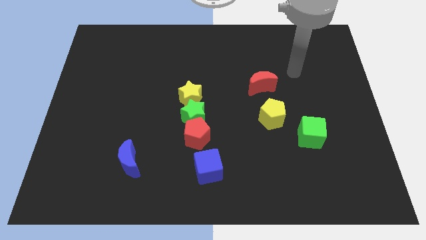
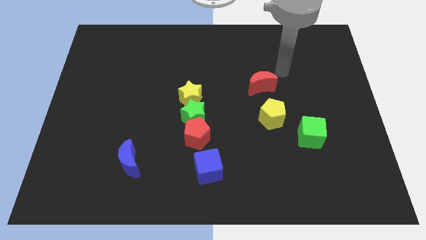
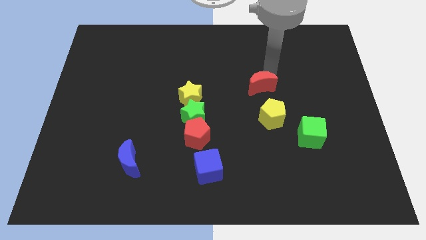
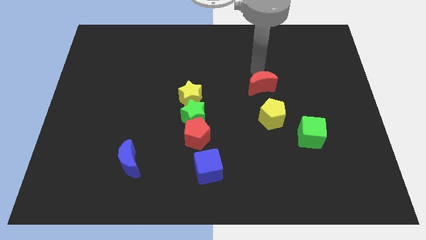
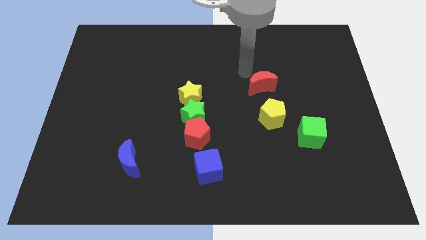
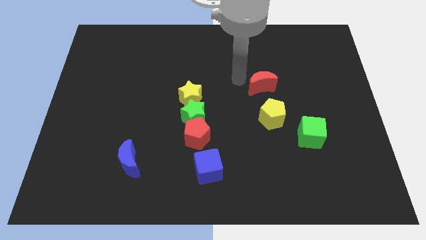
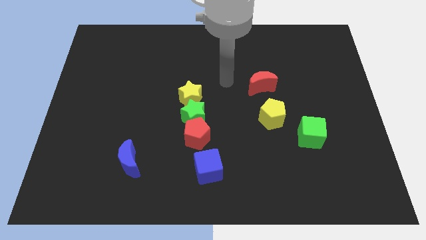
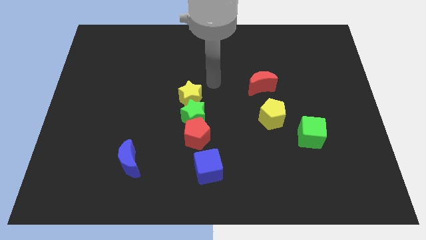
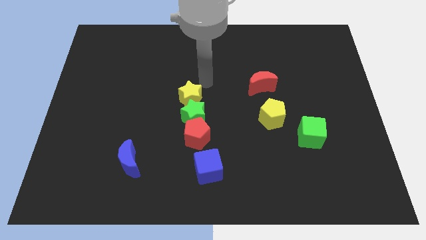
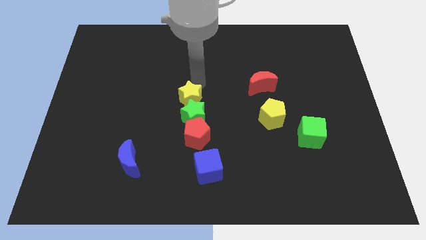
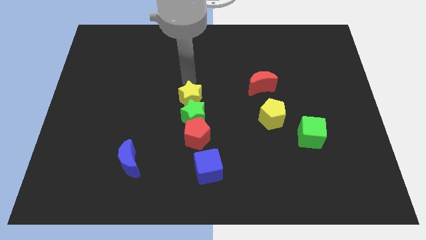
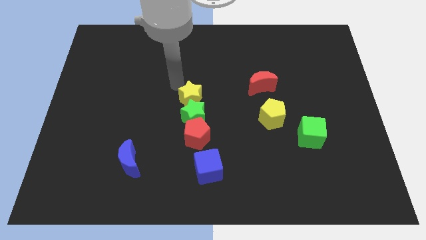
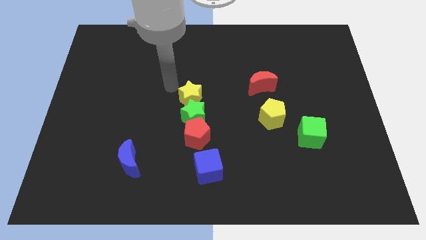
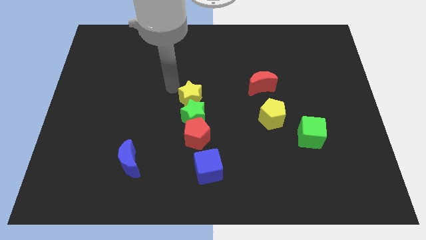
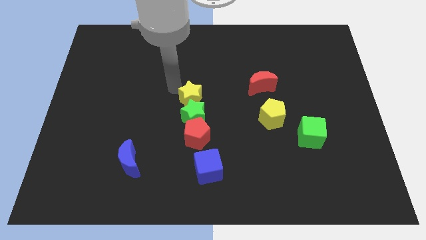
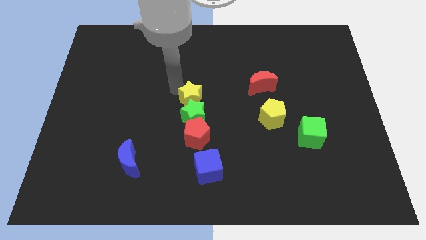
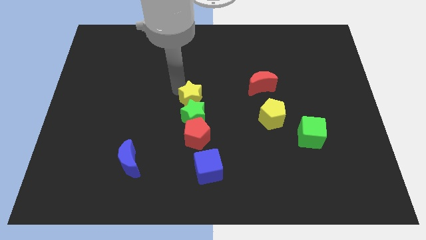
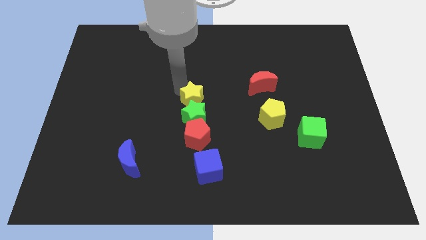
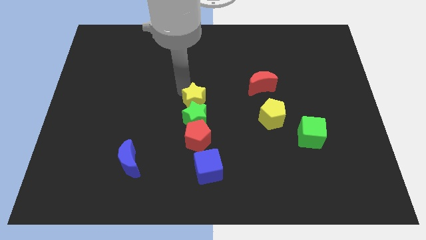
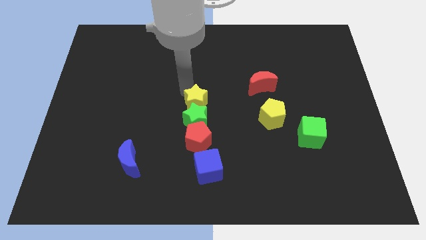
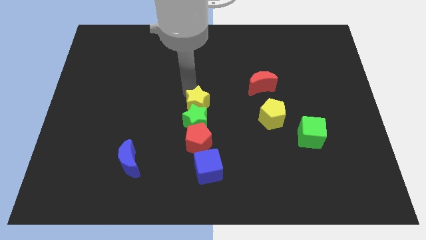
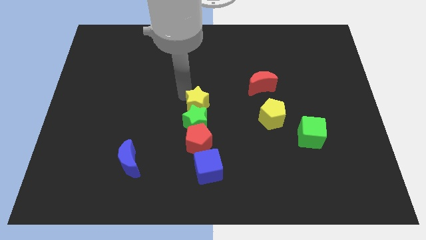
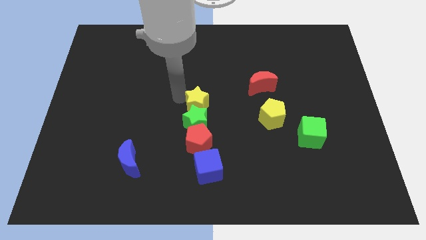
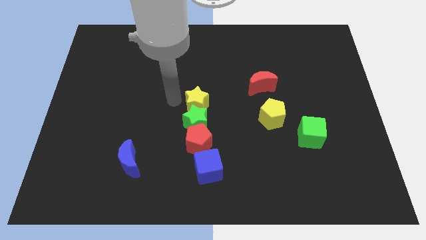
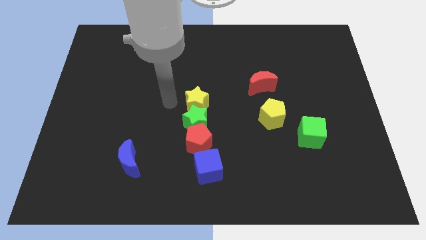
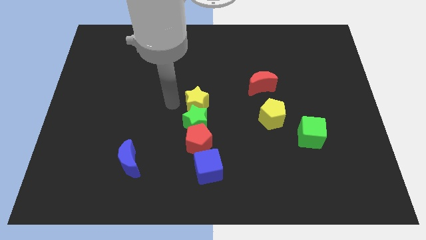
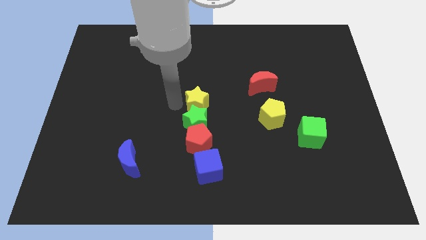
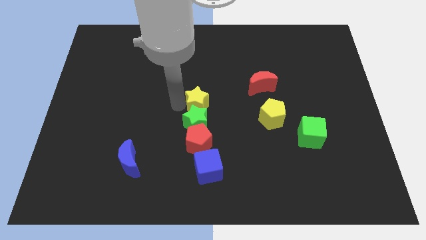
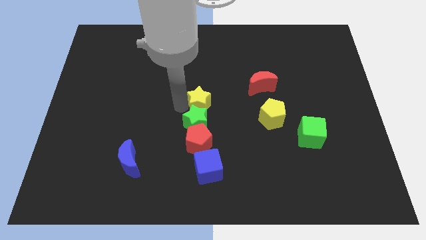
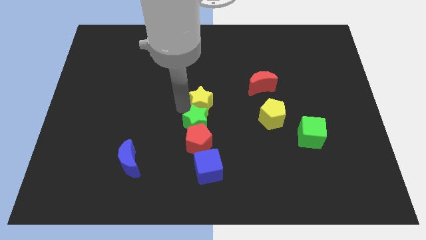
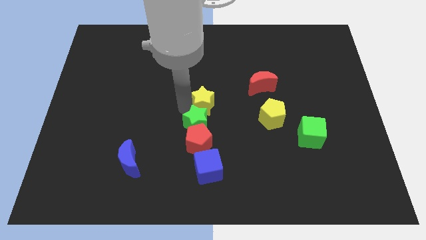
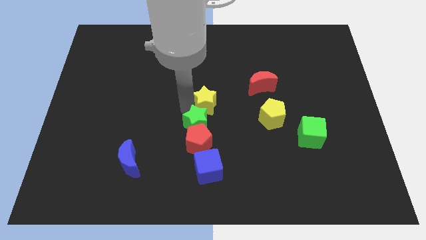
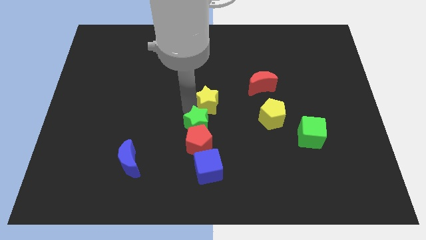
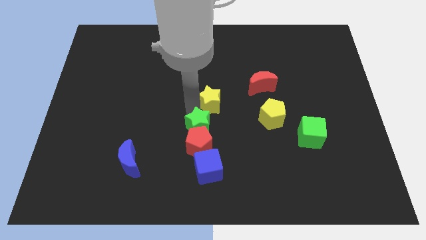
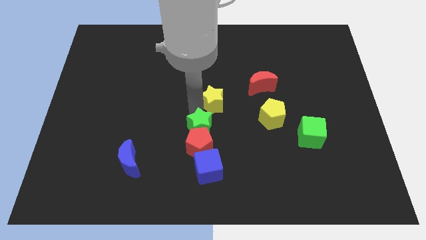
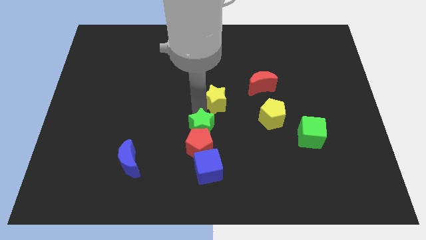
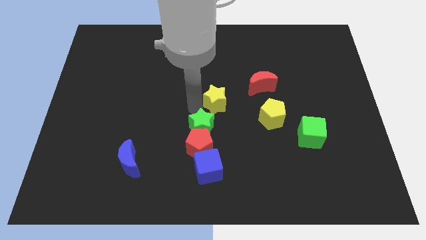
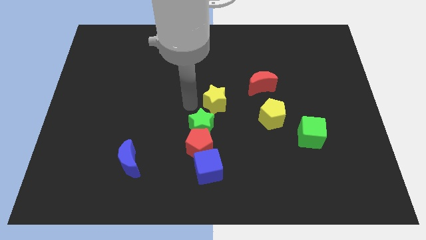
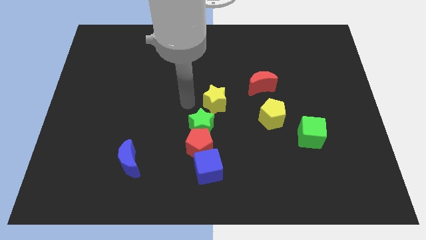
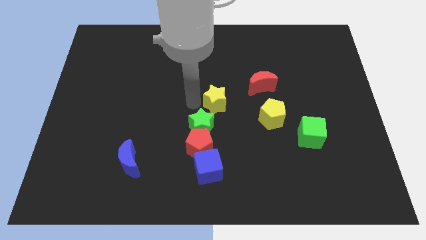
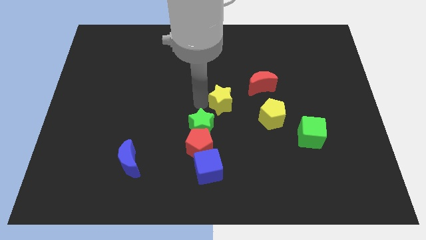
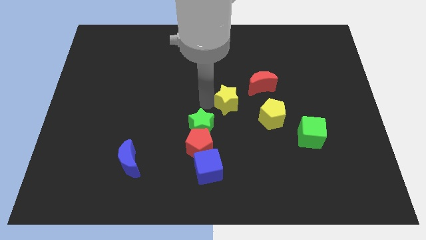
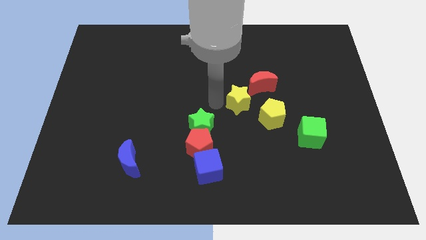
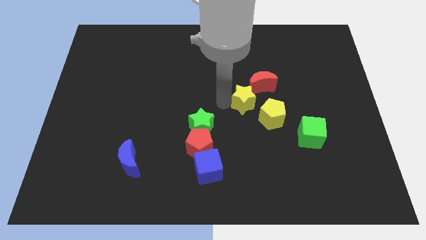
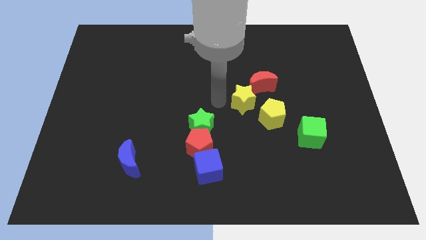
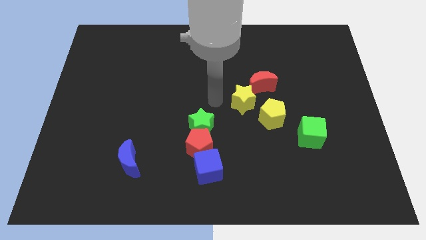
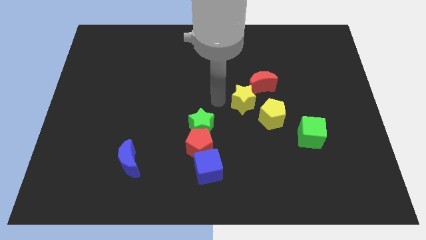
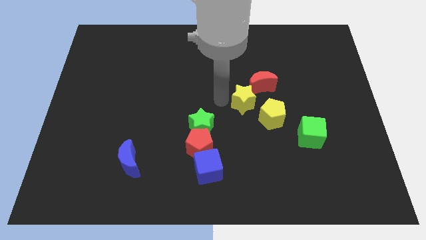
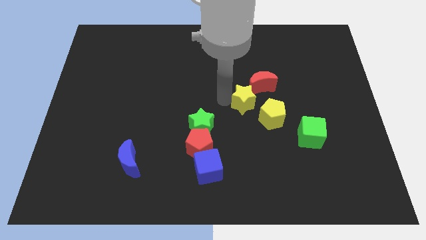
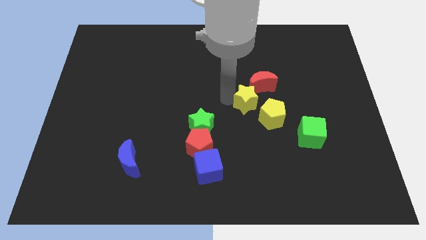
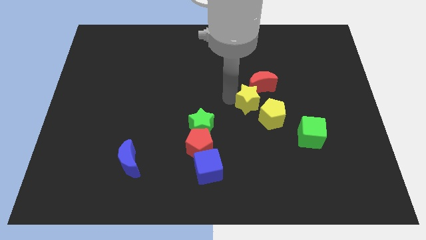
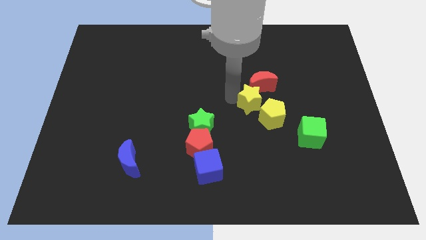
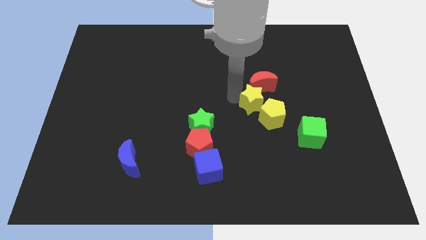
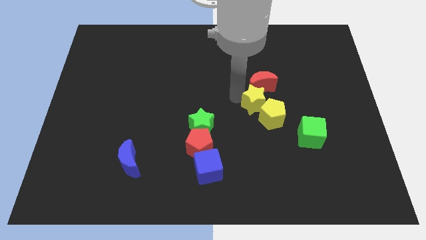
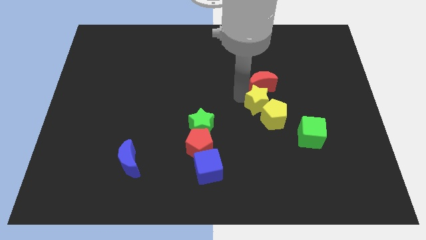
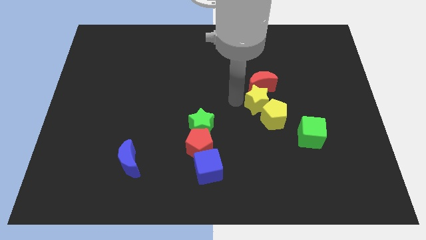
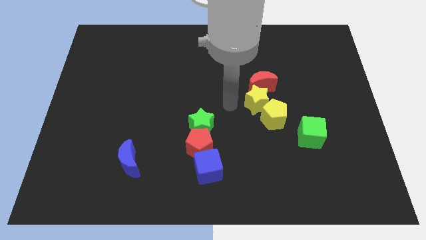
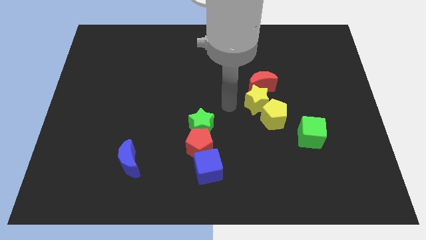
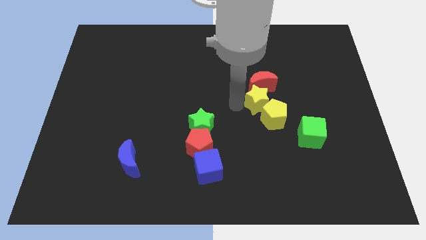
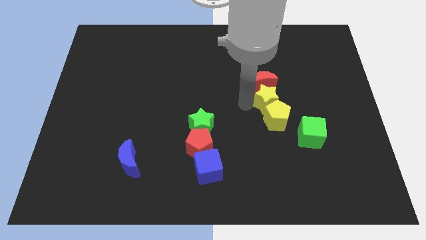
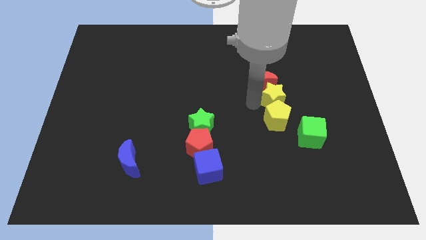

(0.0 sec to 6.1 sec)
push the yellow star to the top right side of the yellow pentagon
